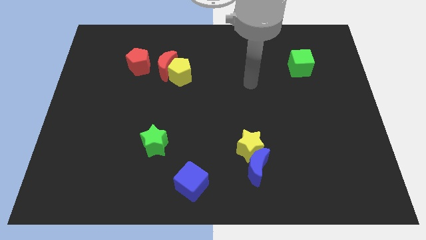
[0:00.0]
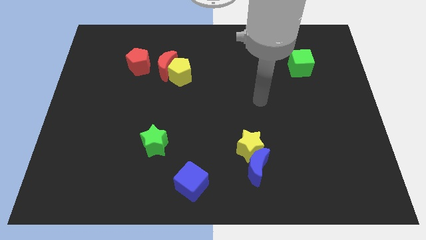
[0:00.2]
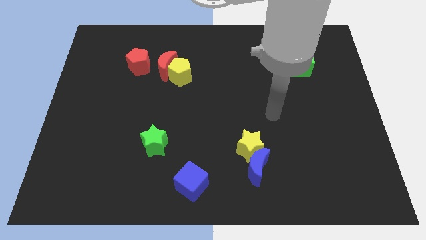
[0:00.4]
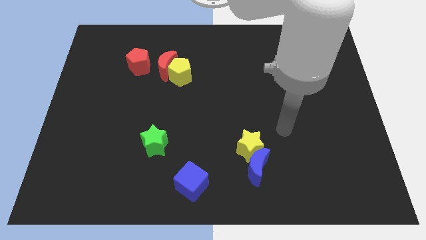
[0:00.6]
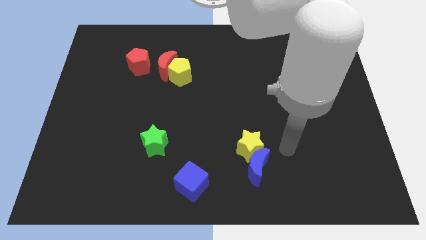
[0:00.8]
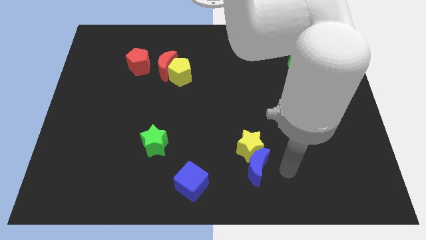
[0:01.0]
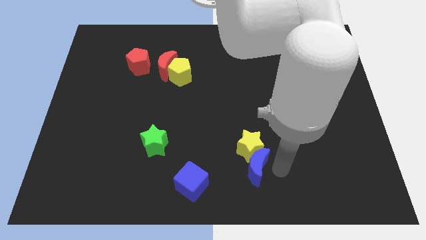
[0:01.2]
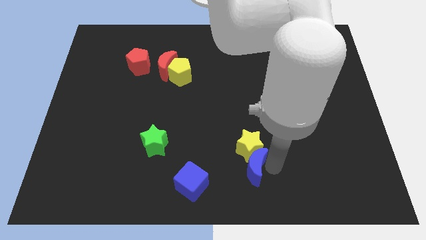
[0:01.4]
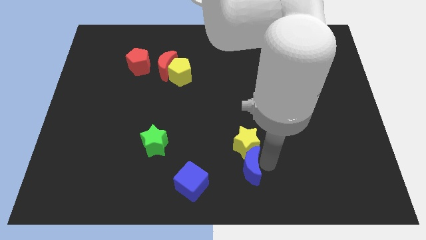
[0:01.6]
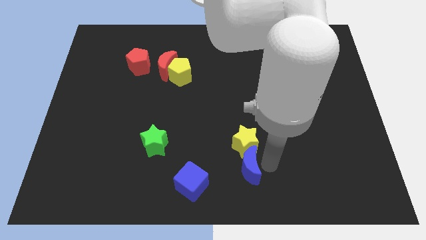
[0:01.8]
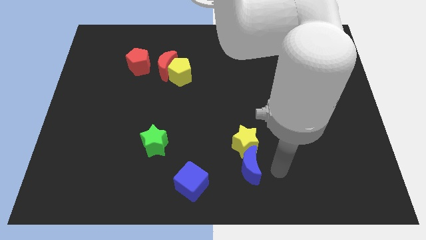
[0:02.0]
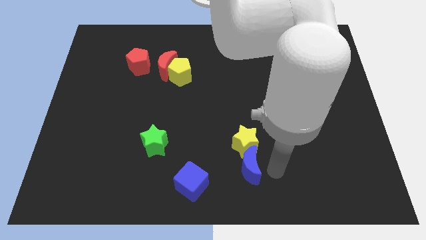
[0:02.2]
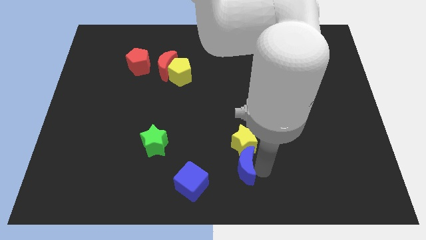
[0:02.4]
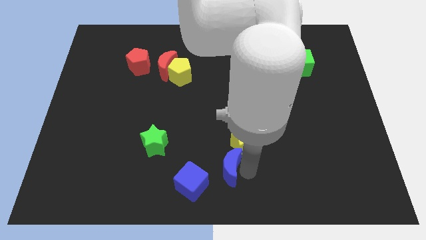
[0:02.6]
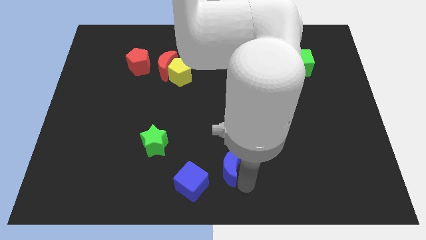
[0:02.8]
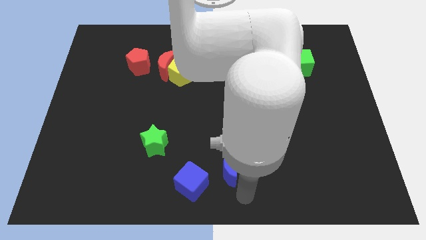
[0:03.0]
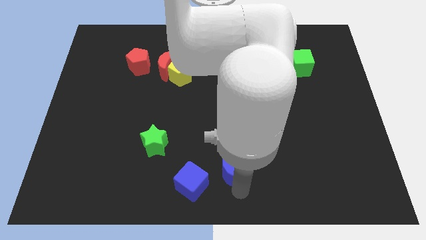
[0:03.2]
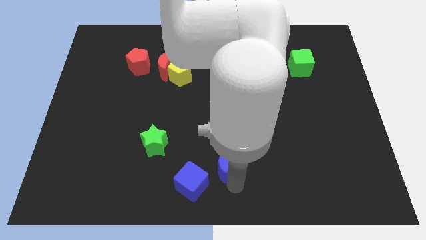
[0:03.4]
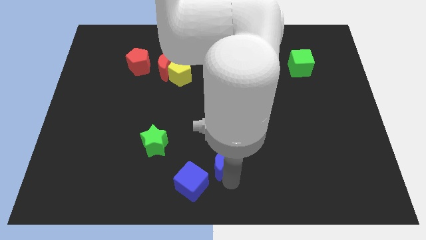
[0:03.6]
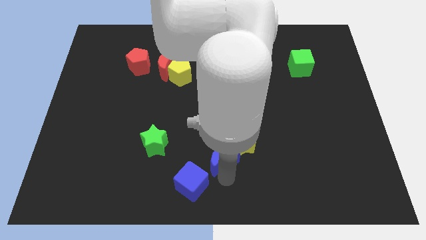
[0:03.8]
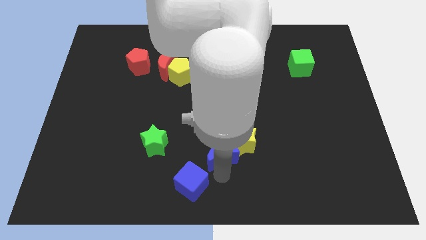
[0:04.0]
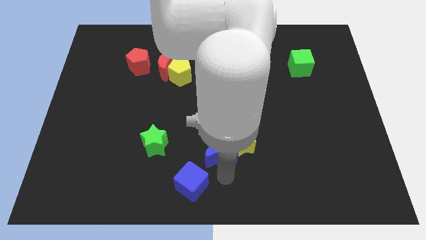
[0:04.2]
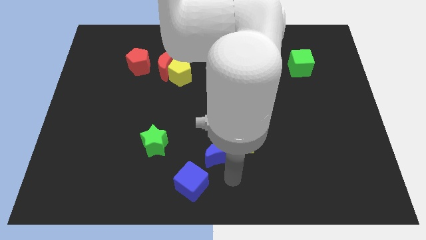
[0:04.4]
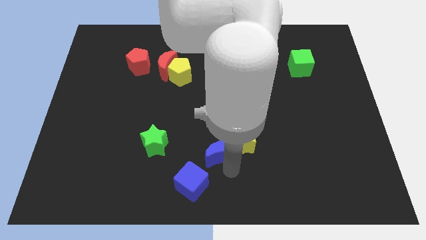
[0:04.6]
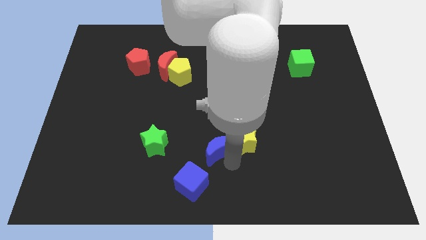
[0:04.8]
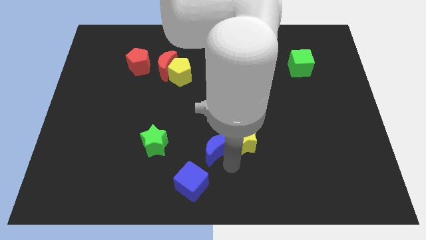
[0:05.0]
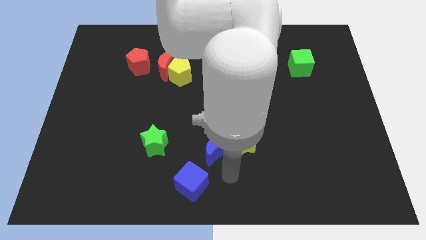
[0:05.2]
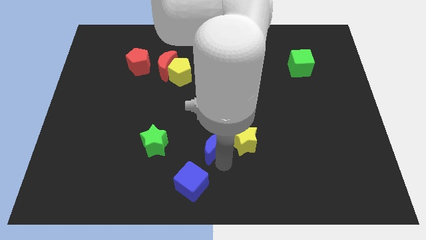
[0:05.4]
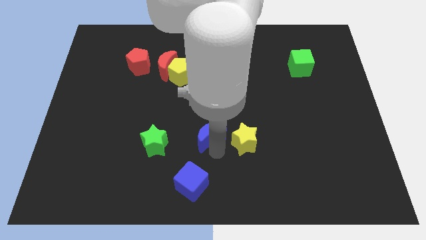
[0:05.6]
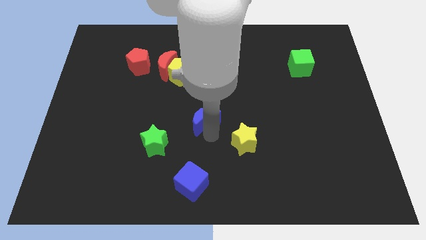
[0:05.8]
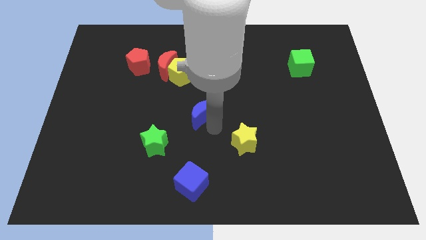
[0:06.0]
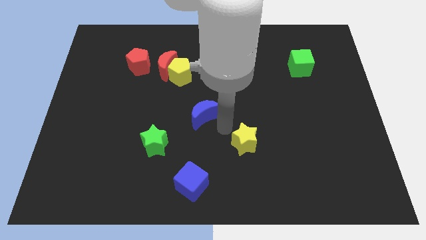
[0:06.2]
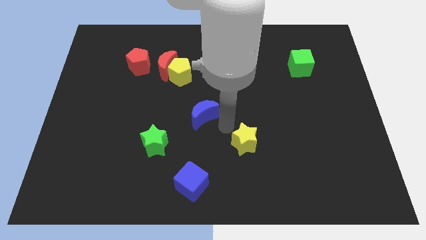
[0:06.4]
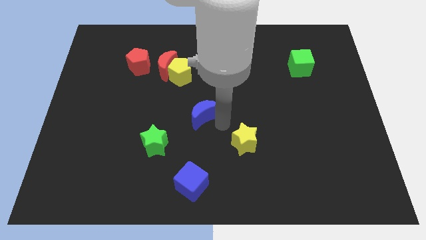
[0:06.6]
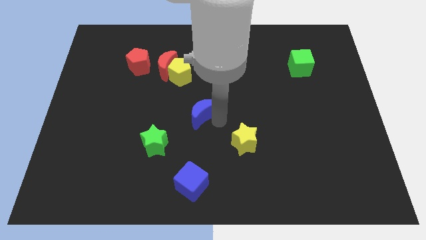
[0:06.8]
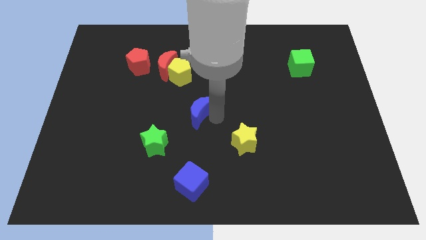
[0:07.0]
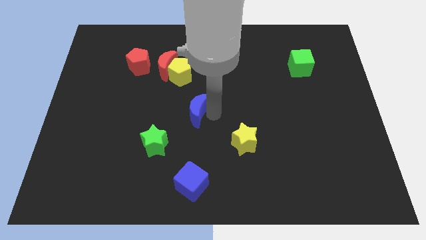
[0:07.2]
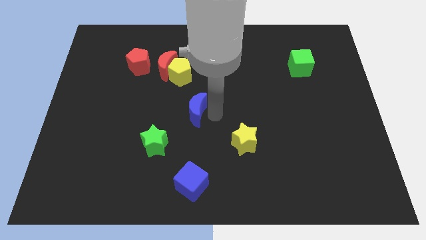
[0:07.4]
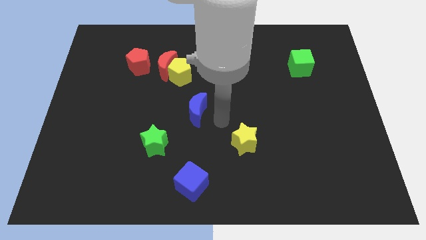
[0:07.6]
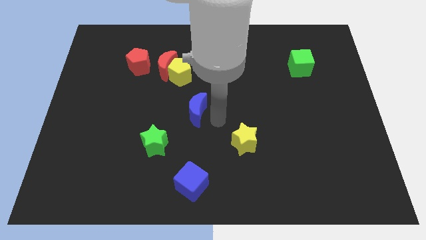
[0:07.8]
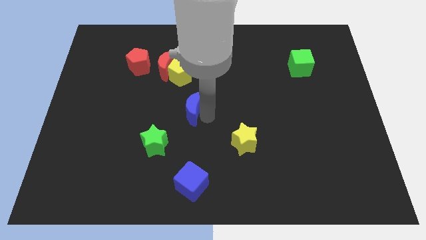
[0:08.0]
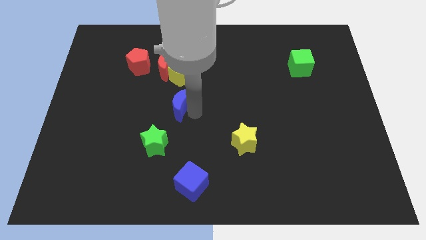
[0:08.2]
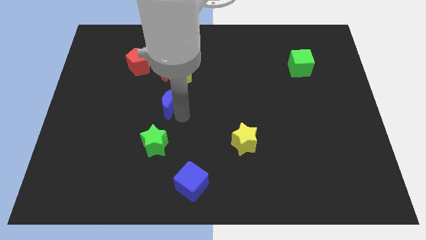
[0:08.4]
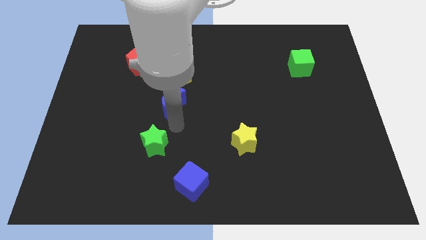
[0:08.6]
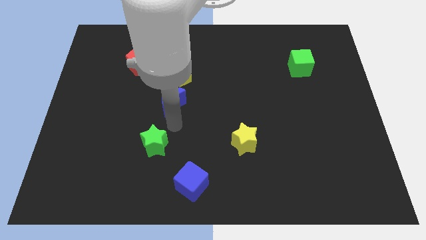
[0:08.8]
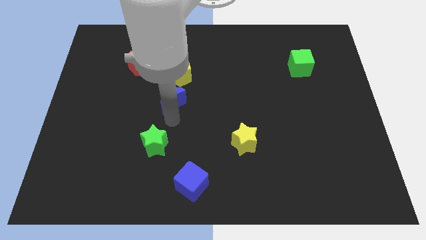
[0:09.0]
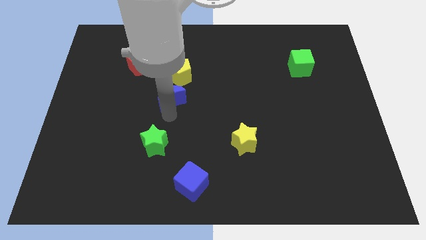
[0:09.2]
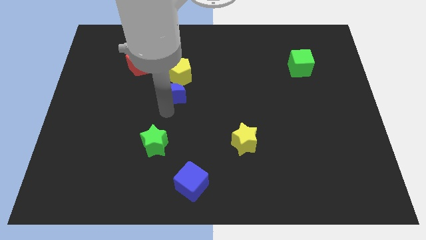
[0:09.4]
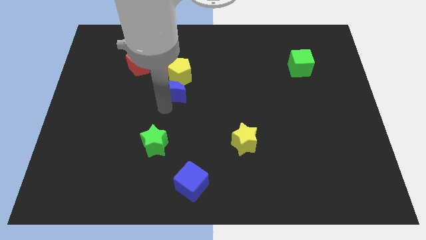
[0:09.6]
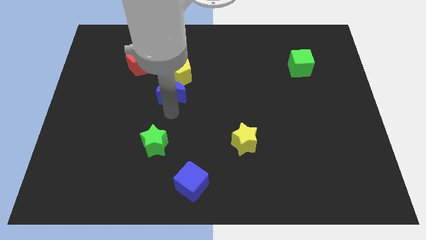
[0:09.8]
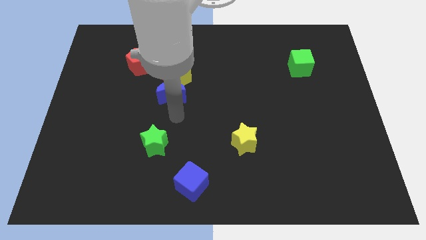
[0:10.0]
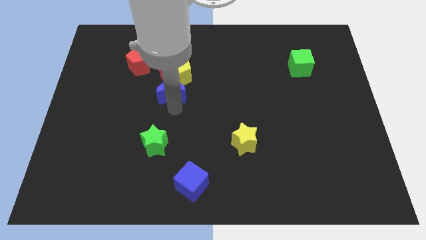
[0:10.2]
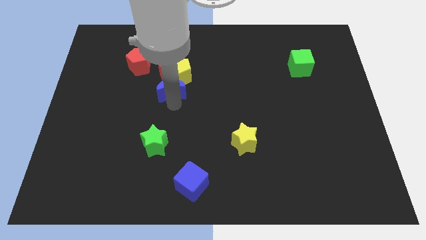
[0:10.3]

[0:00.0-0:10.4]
push the blue moon to the bottom right of the red pentagon
